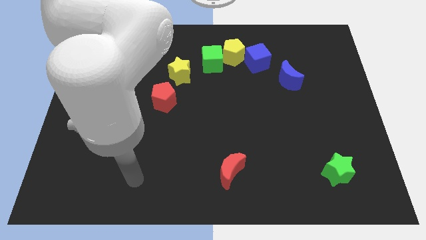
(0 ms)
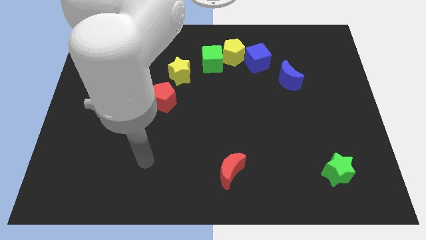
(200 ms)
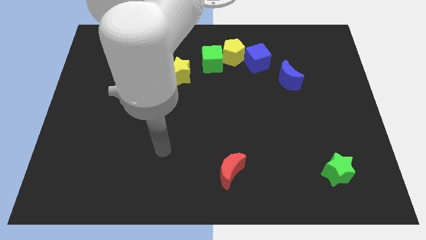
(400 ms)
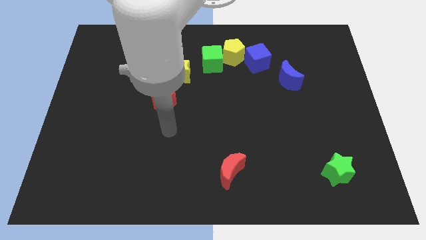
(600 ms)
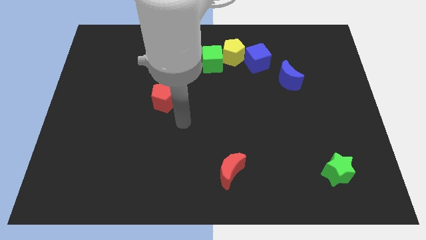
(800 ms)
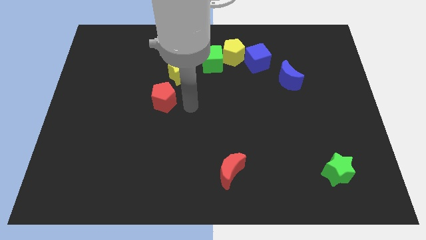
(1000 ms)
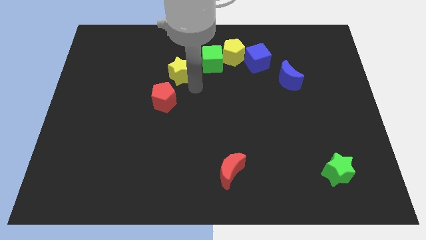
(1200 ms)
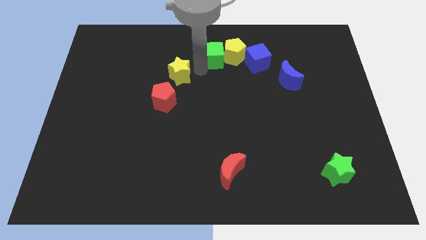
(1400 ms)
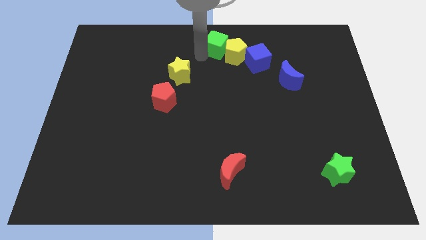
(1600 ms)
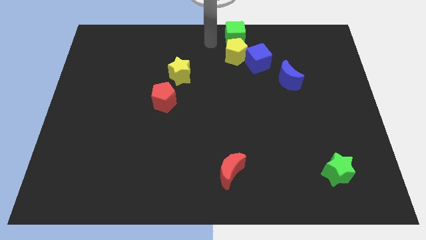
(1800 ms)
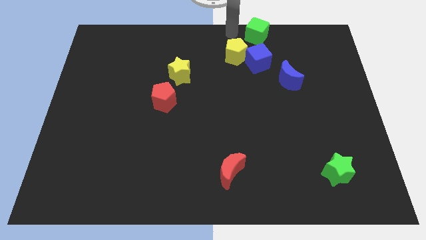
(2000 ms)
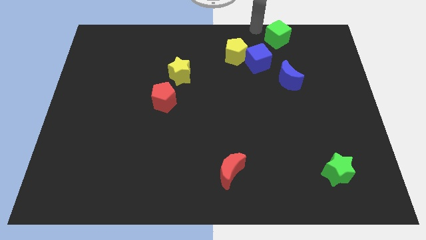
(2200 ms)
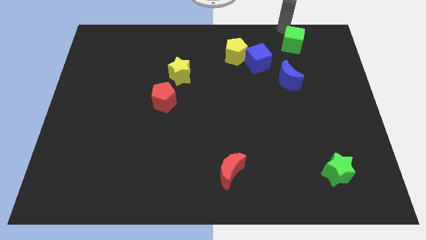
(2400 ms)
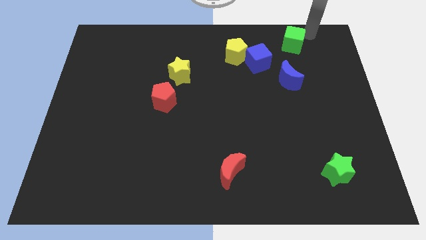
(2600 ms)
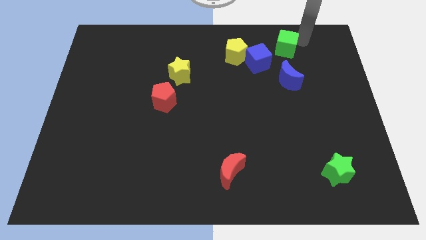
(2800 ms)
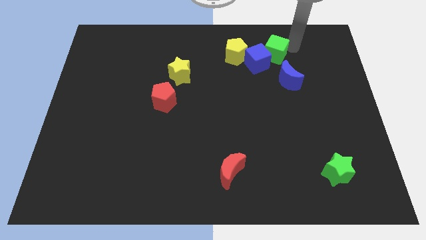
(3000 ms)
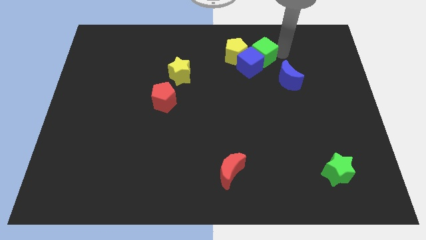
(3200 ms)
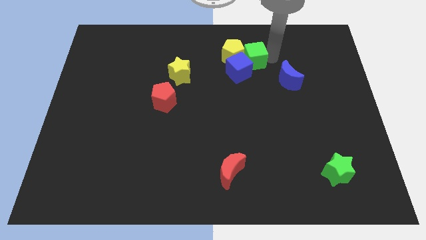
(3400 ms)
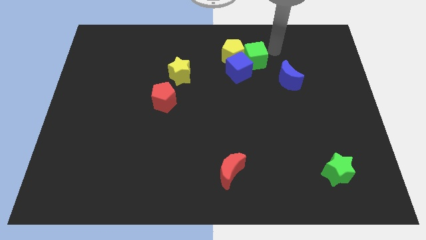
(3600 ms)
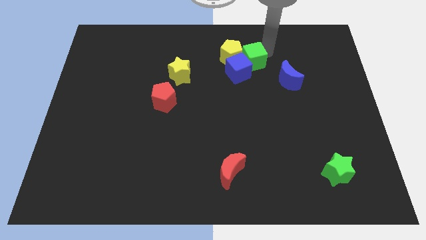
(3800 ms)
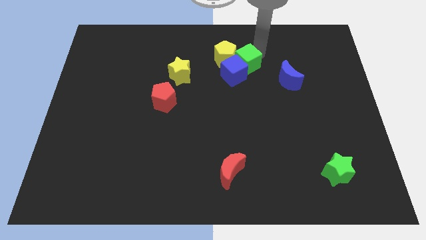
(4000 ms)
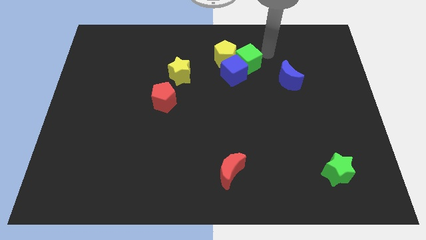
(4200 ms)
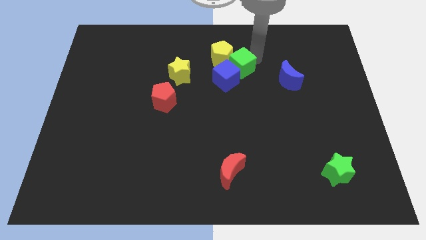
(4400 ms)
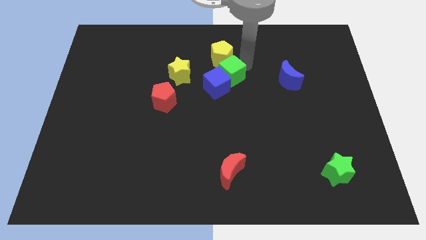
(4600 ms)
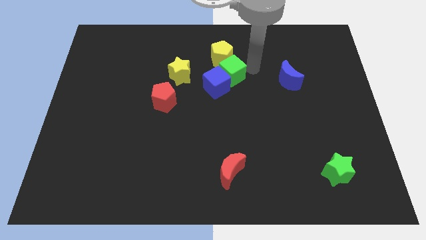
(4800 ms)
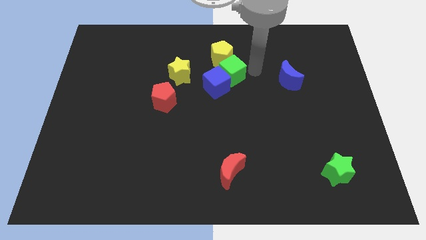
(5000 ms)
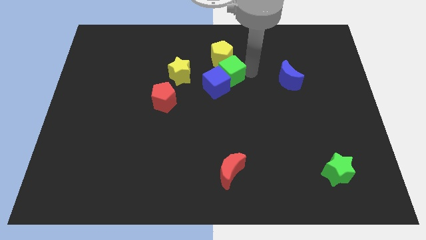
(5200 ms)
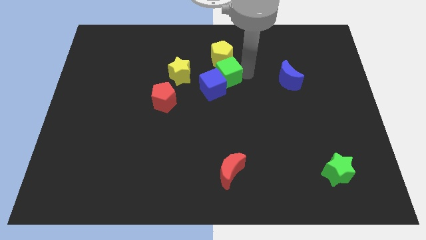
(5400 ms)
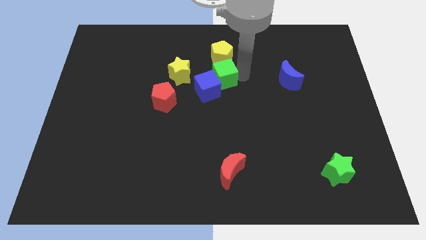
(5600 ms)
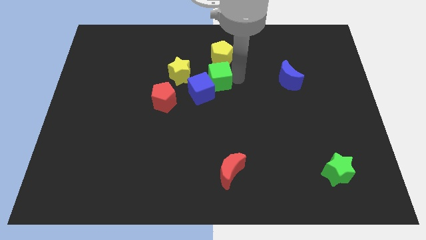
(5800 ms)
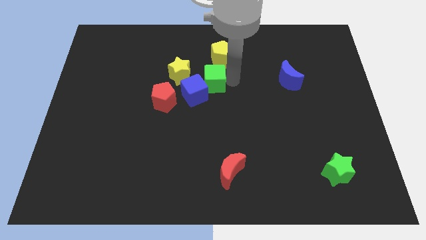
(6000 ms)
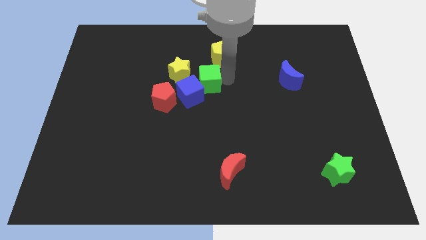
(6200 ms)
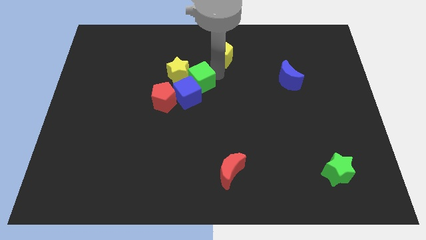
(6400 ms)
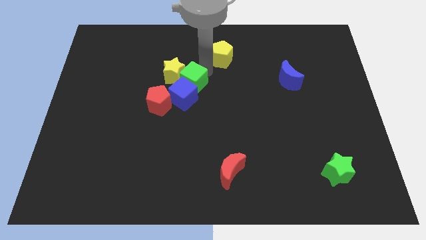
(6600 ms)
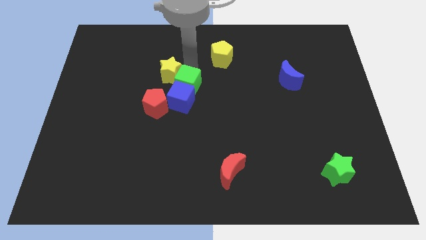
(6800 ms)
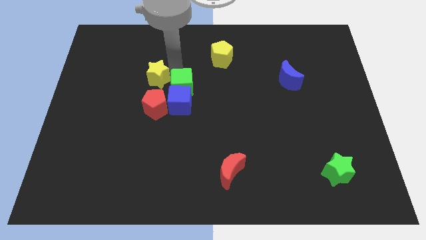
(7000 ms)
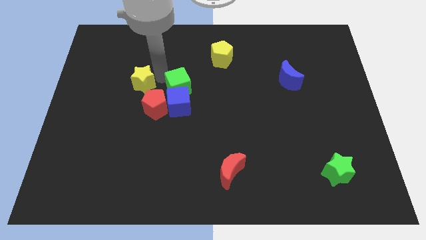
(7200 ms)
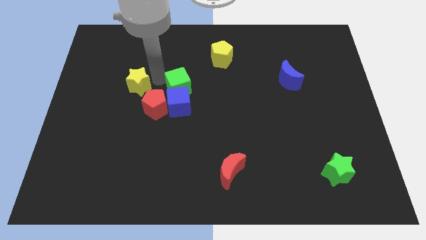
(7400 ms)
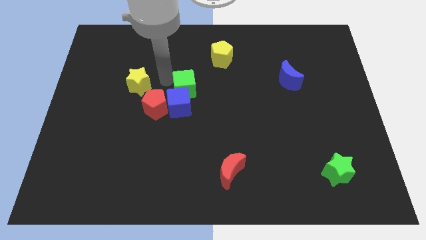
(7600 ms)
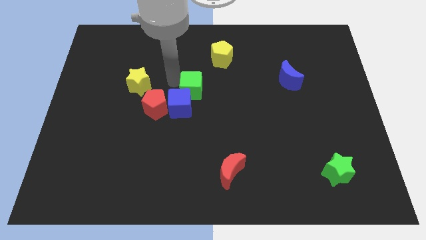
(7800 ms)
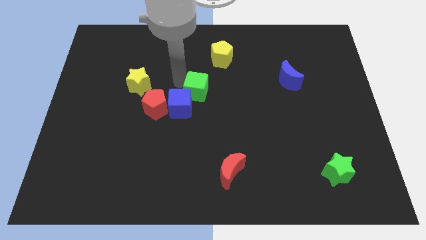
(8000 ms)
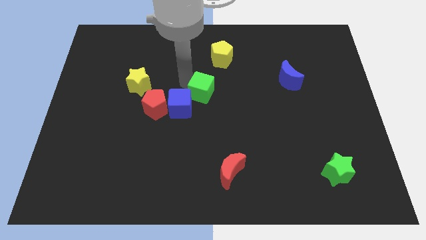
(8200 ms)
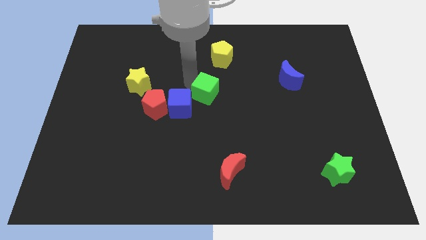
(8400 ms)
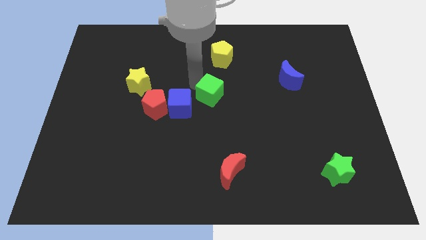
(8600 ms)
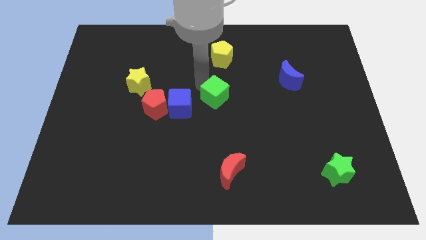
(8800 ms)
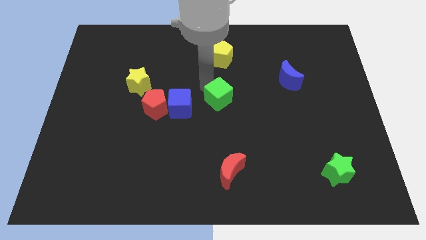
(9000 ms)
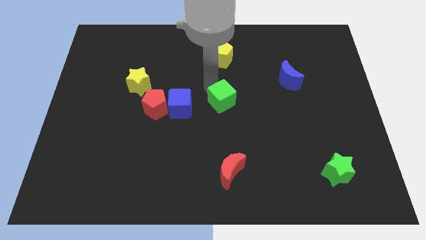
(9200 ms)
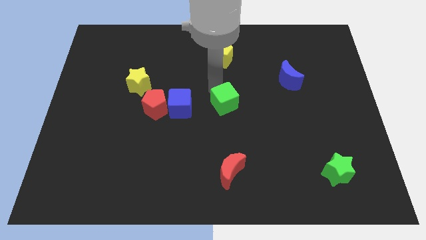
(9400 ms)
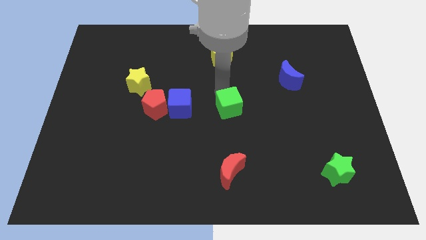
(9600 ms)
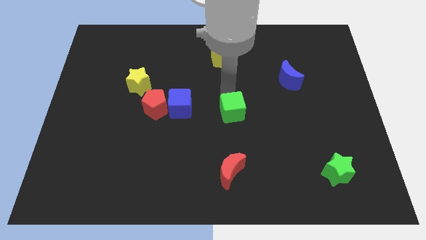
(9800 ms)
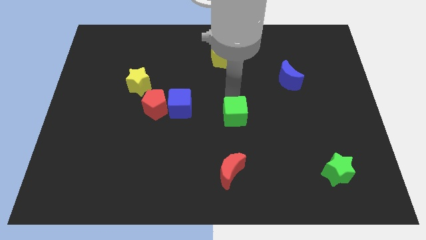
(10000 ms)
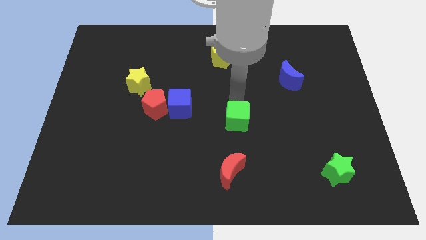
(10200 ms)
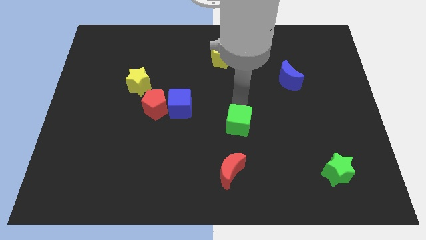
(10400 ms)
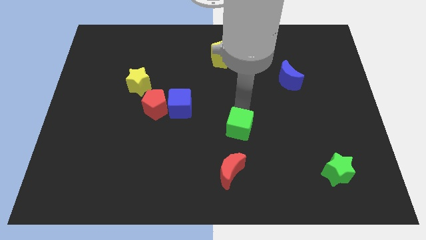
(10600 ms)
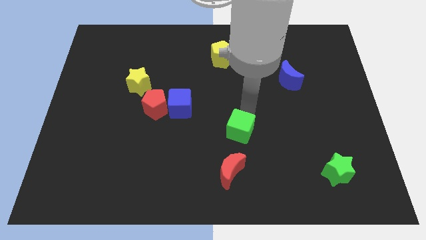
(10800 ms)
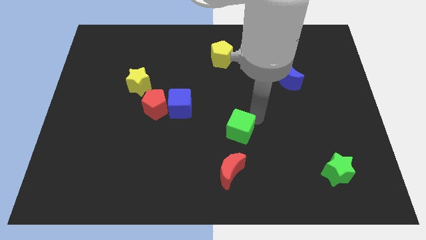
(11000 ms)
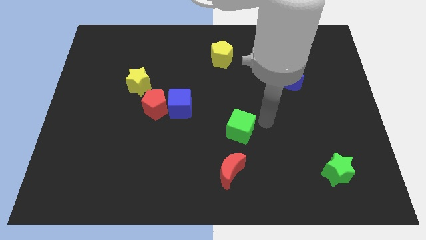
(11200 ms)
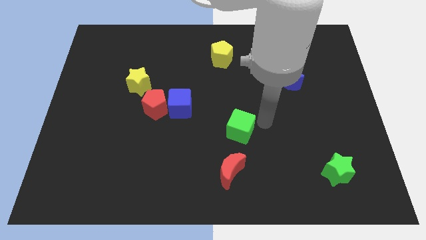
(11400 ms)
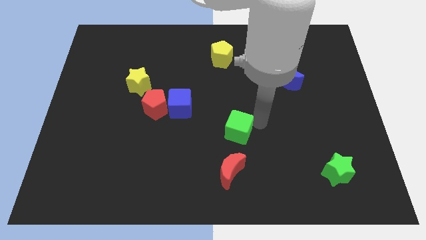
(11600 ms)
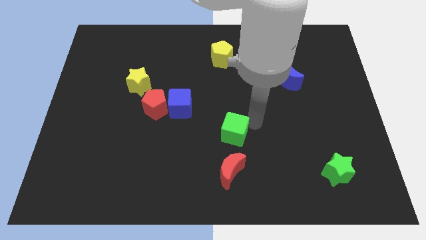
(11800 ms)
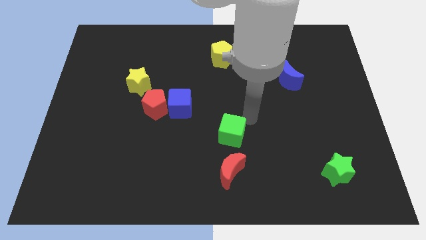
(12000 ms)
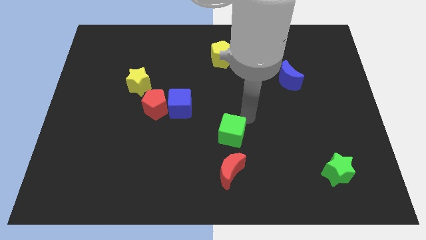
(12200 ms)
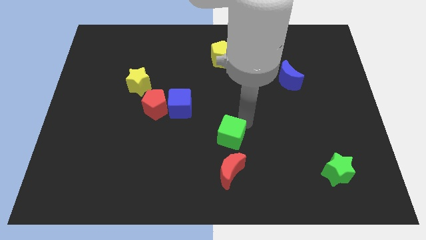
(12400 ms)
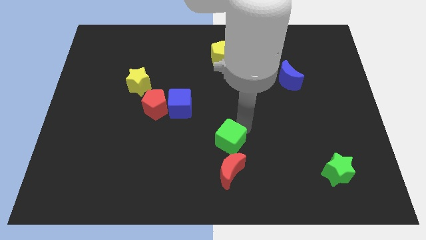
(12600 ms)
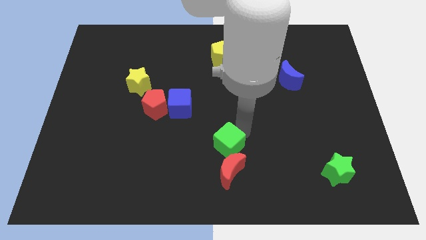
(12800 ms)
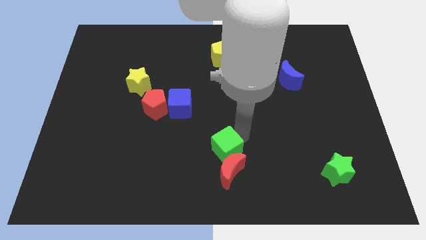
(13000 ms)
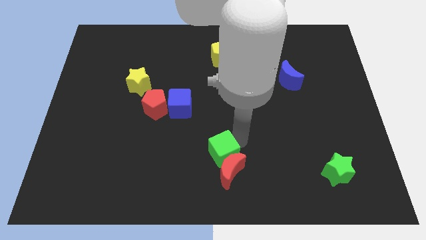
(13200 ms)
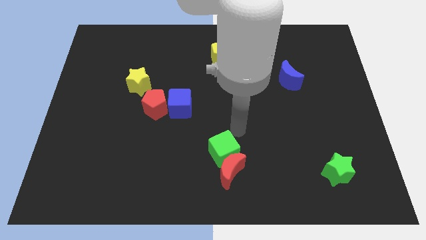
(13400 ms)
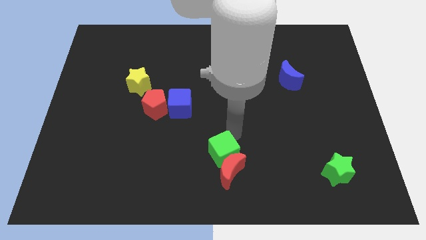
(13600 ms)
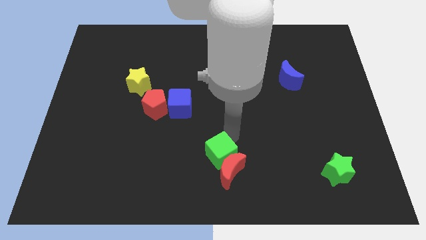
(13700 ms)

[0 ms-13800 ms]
move the green cube to the bottom
